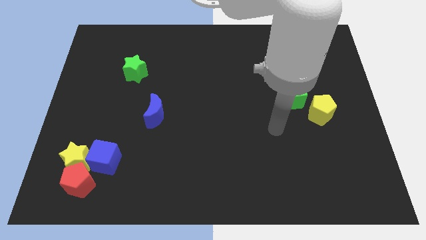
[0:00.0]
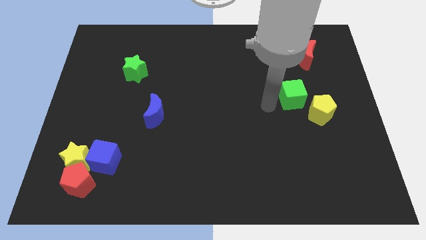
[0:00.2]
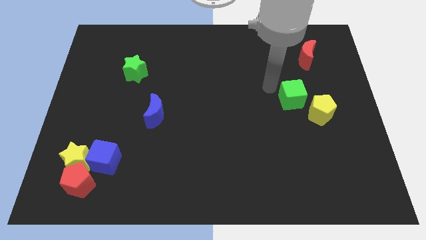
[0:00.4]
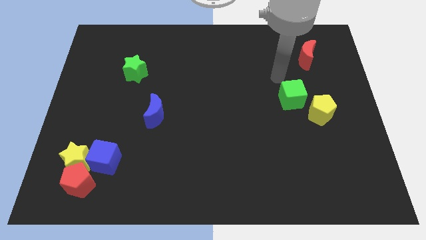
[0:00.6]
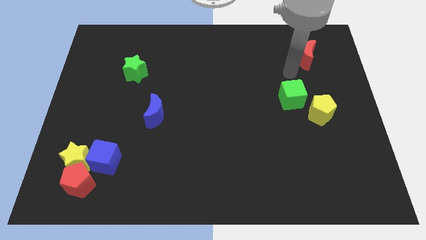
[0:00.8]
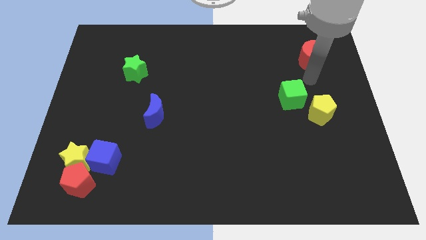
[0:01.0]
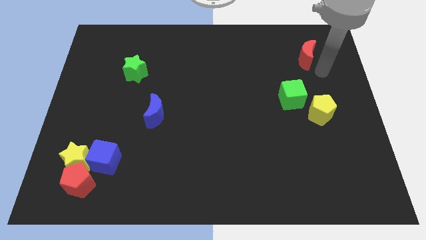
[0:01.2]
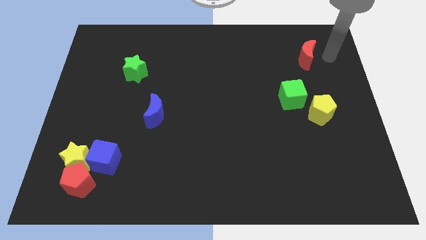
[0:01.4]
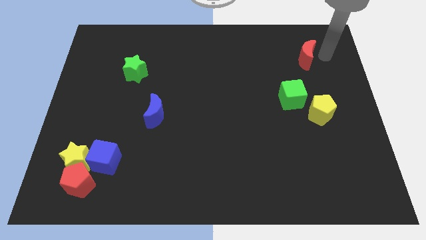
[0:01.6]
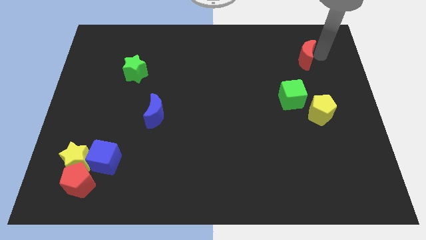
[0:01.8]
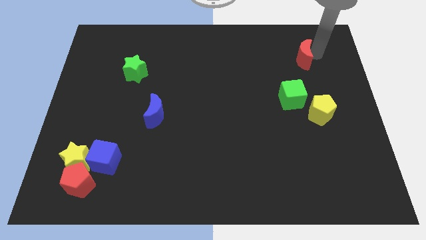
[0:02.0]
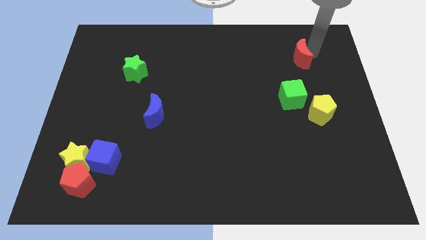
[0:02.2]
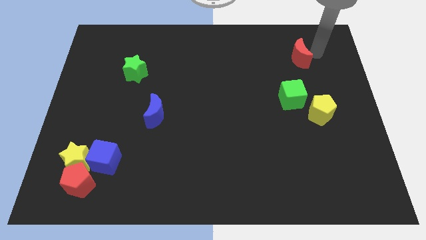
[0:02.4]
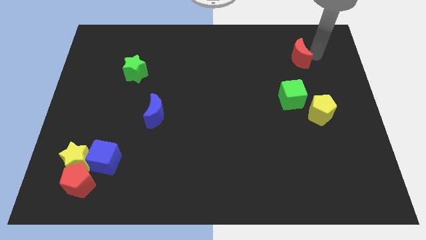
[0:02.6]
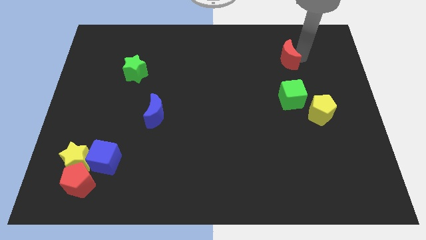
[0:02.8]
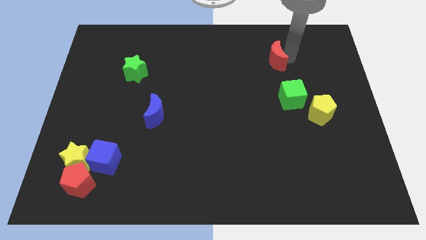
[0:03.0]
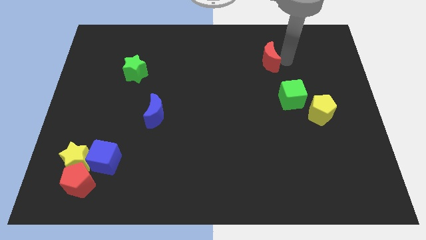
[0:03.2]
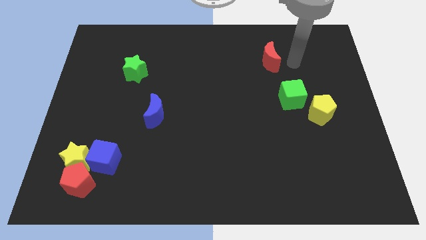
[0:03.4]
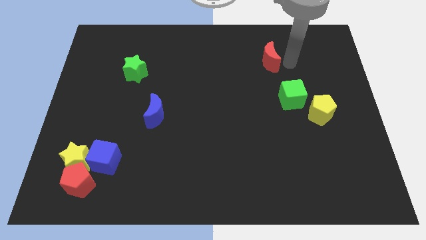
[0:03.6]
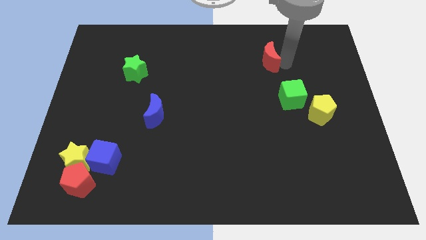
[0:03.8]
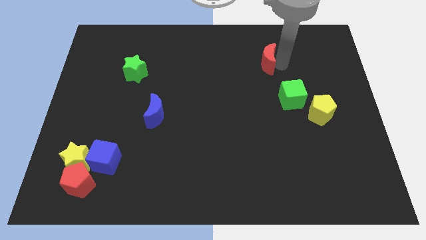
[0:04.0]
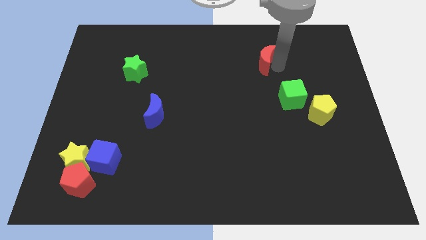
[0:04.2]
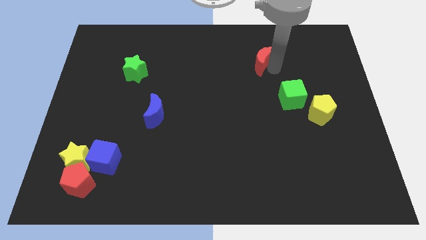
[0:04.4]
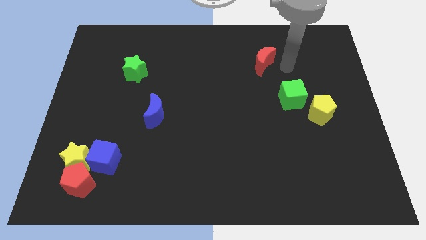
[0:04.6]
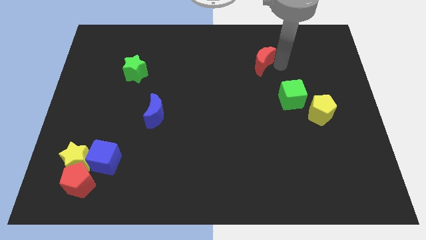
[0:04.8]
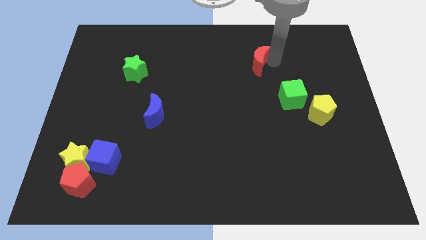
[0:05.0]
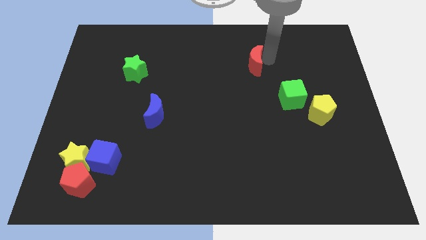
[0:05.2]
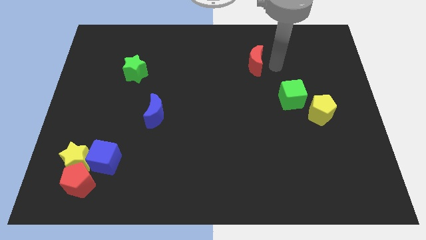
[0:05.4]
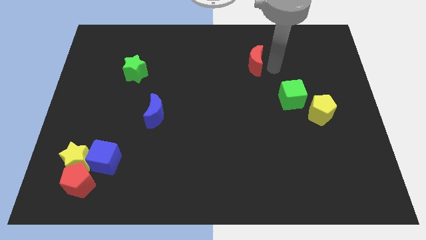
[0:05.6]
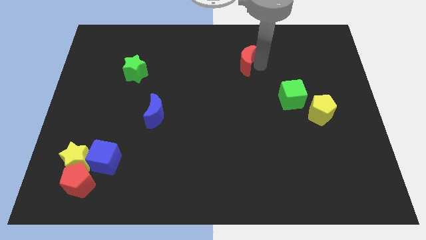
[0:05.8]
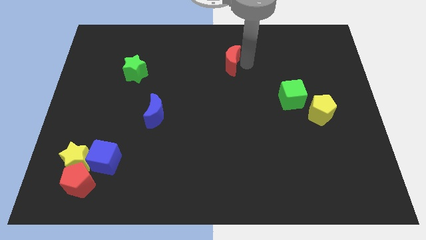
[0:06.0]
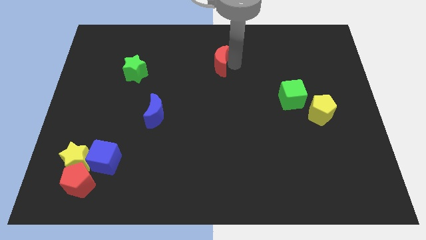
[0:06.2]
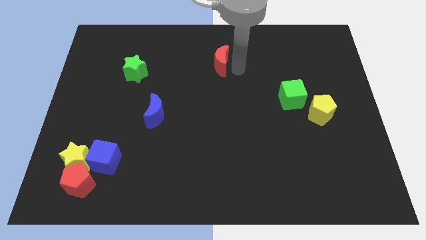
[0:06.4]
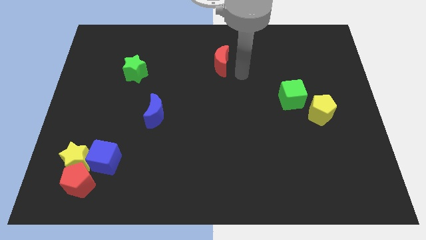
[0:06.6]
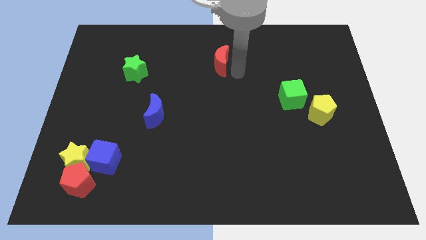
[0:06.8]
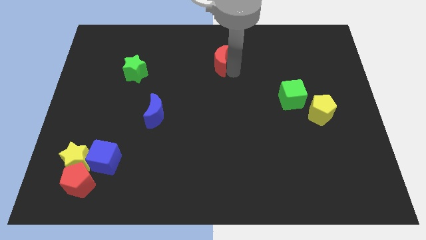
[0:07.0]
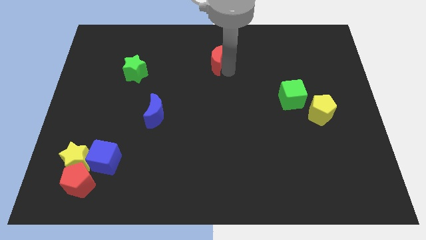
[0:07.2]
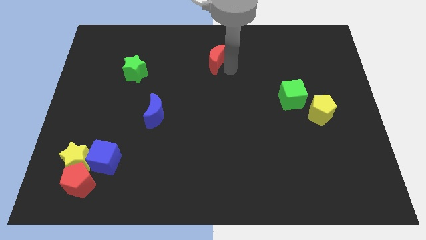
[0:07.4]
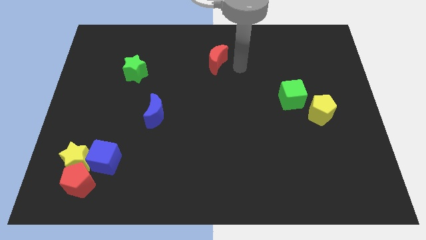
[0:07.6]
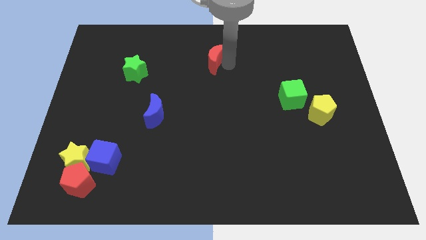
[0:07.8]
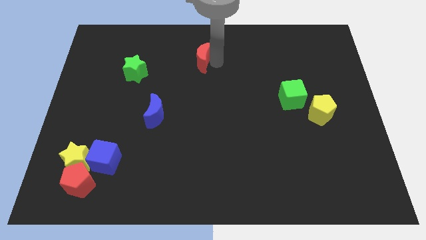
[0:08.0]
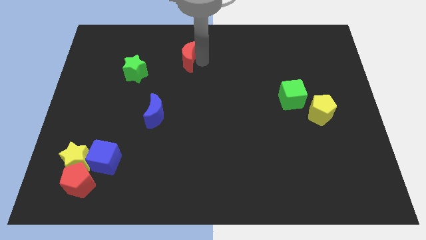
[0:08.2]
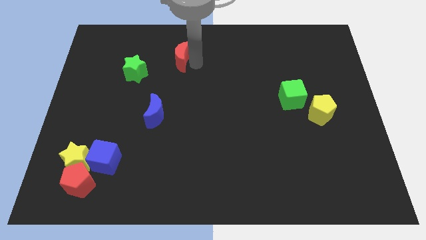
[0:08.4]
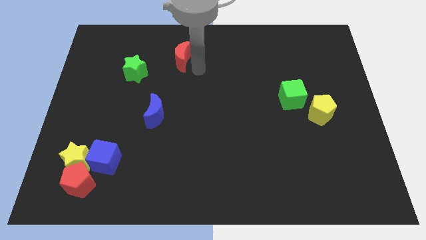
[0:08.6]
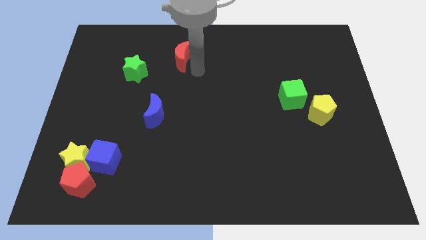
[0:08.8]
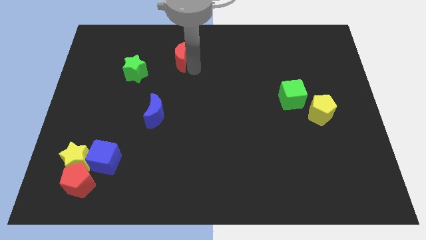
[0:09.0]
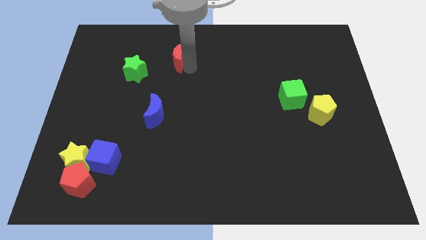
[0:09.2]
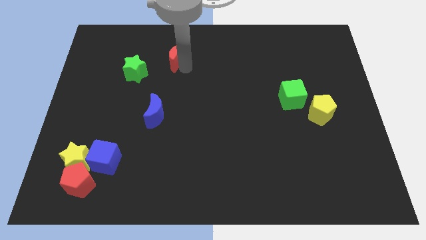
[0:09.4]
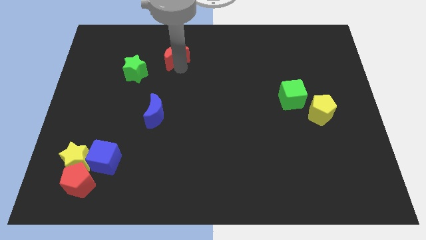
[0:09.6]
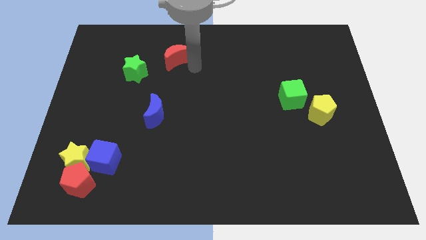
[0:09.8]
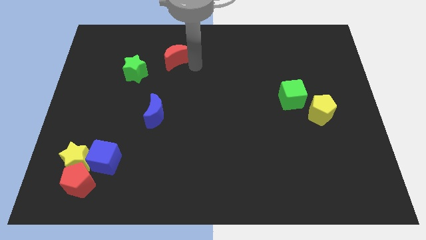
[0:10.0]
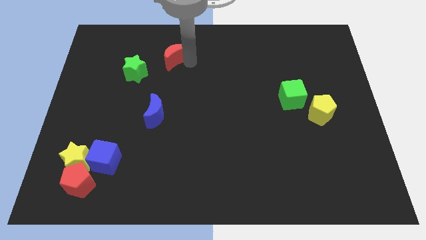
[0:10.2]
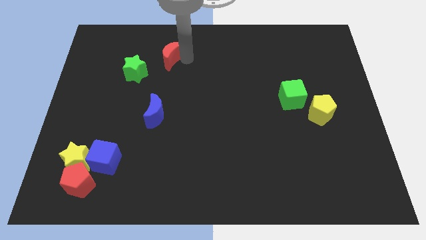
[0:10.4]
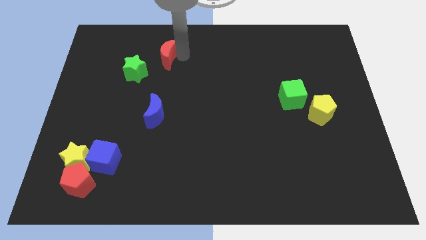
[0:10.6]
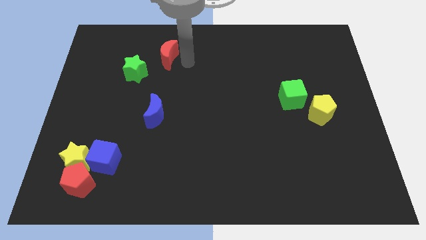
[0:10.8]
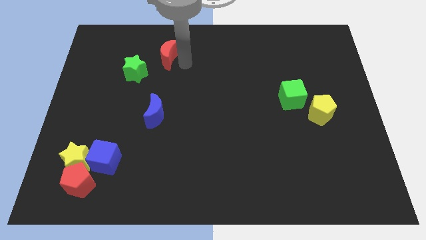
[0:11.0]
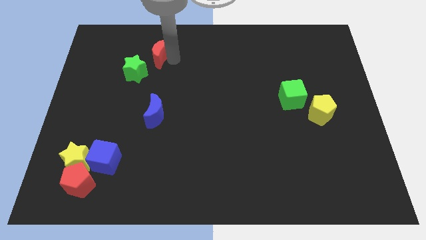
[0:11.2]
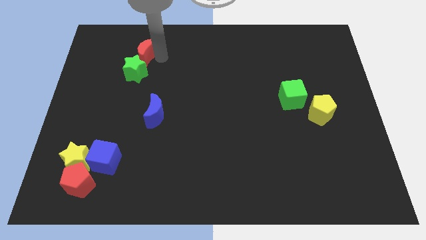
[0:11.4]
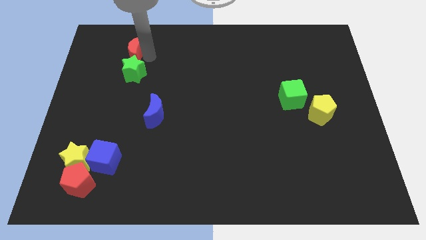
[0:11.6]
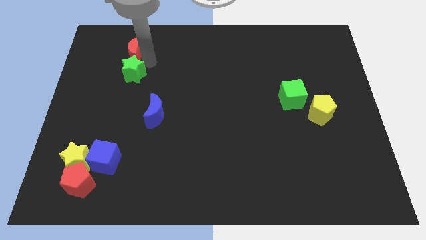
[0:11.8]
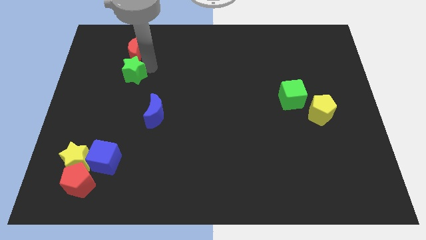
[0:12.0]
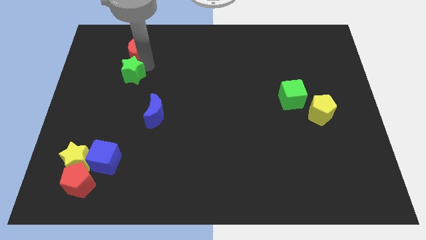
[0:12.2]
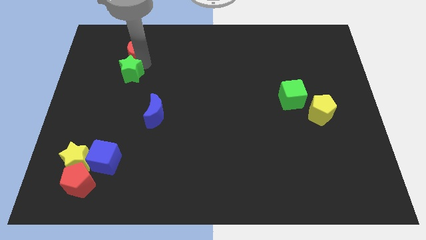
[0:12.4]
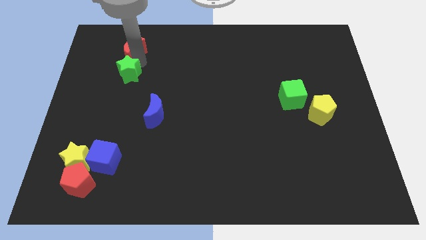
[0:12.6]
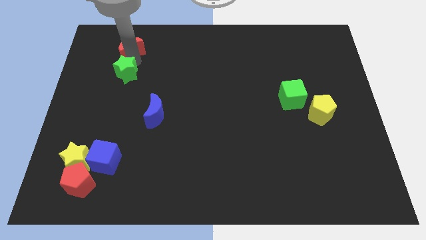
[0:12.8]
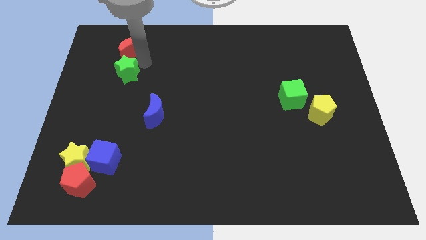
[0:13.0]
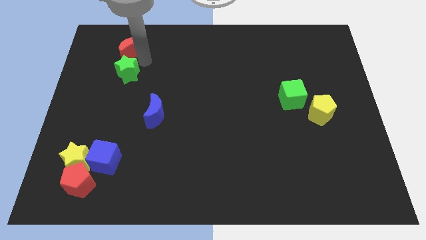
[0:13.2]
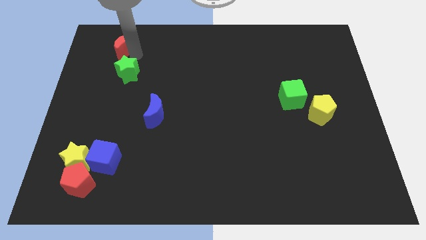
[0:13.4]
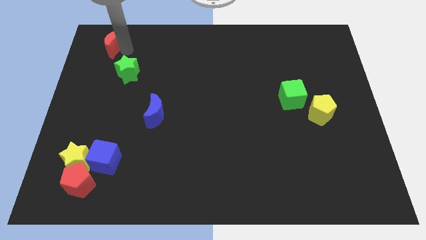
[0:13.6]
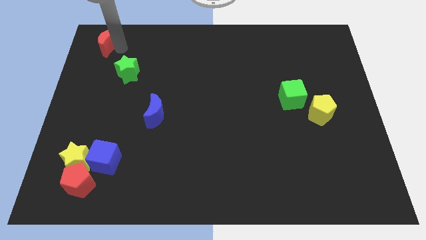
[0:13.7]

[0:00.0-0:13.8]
move the red moon to the top left corner
